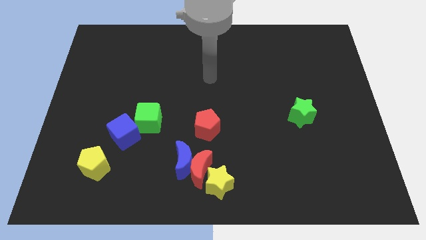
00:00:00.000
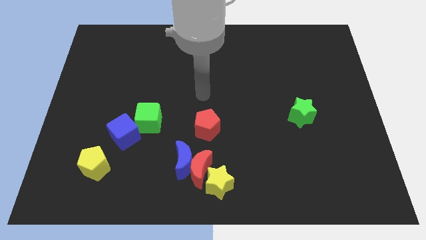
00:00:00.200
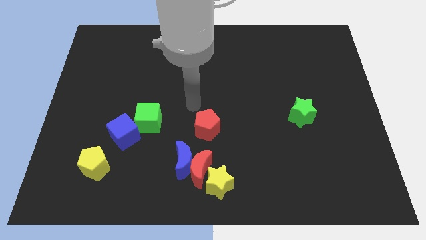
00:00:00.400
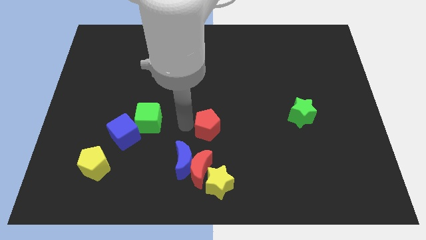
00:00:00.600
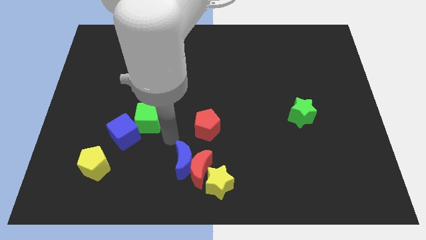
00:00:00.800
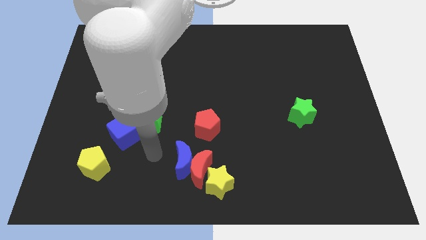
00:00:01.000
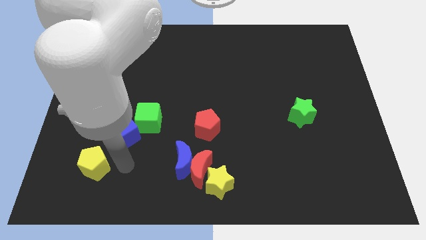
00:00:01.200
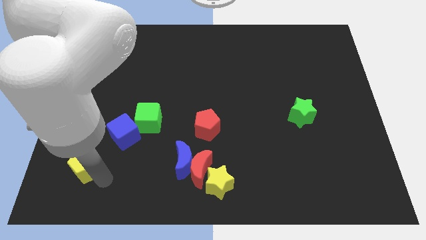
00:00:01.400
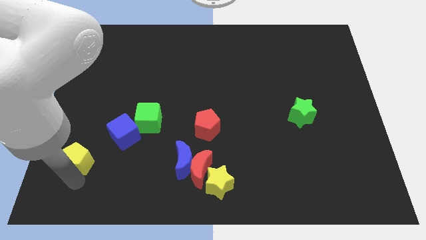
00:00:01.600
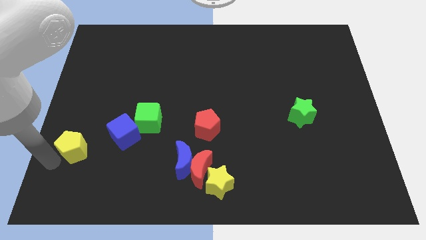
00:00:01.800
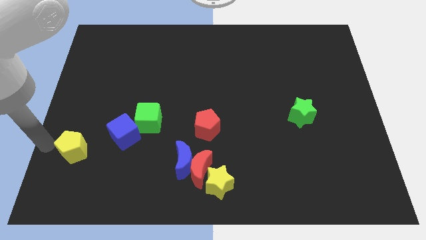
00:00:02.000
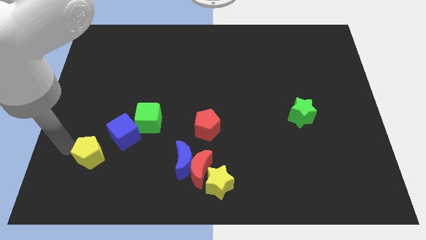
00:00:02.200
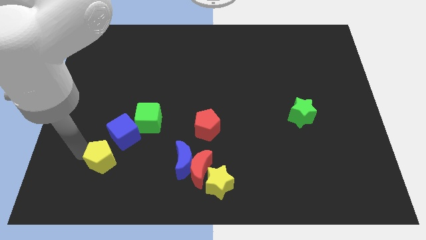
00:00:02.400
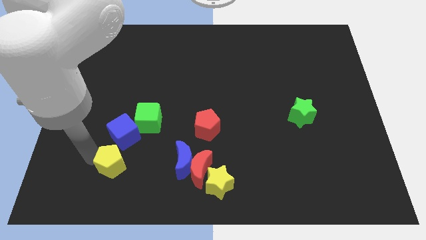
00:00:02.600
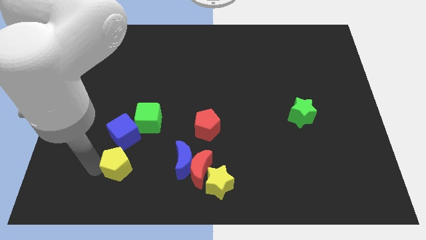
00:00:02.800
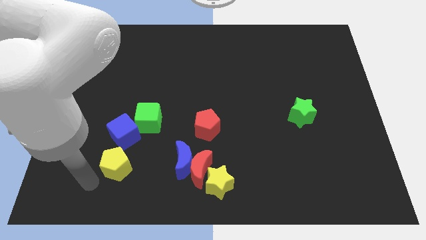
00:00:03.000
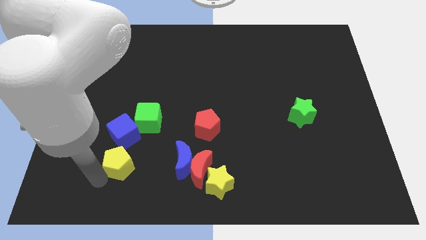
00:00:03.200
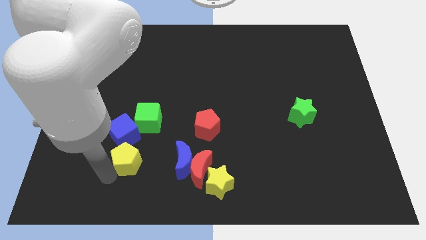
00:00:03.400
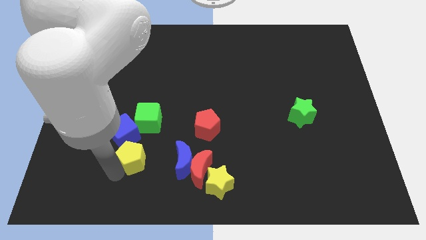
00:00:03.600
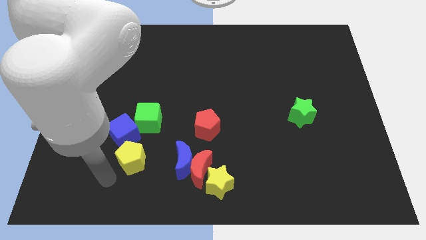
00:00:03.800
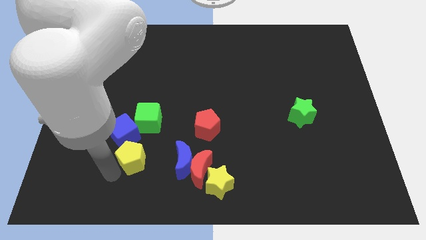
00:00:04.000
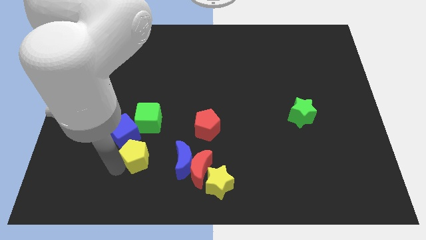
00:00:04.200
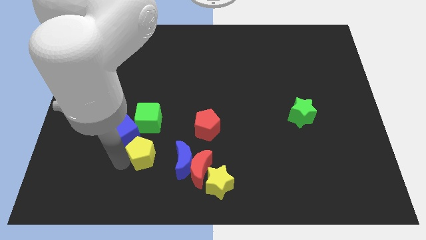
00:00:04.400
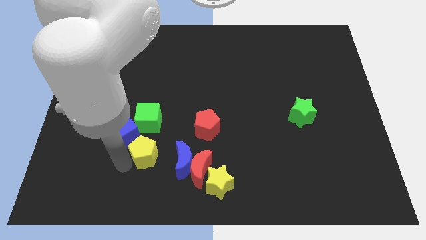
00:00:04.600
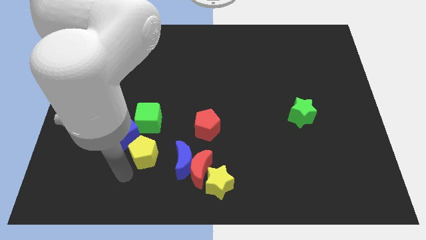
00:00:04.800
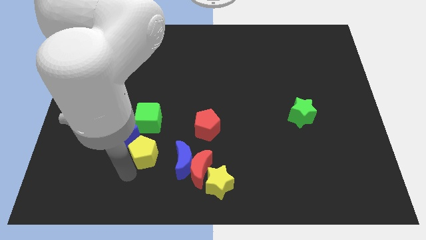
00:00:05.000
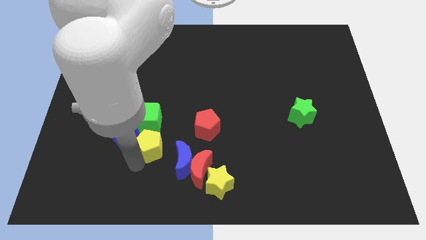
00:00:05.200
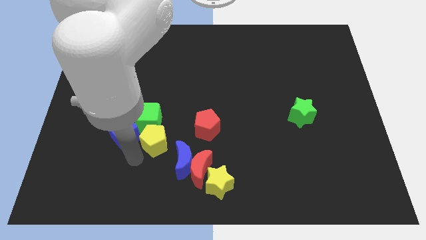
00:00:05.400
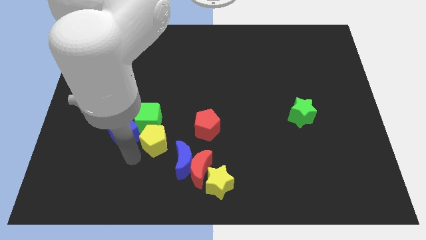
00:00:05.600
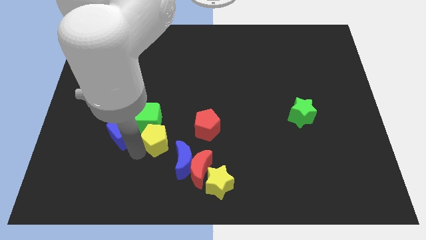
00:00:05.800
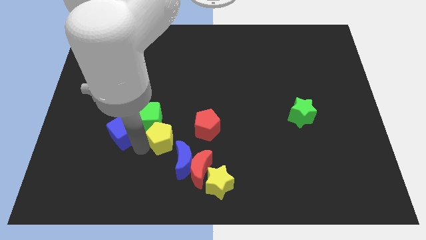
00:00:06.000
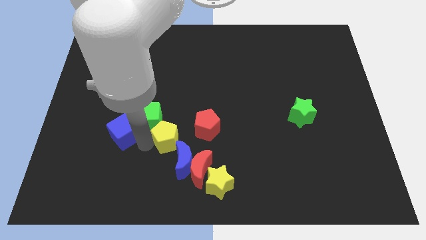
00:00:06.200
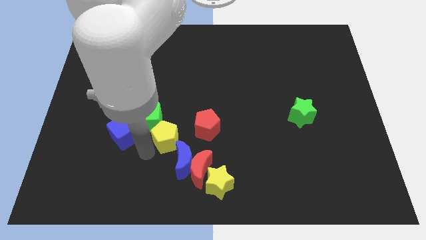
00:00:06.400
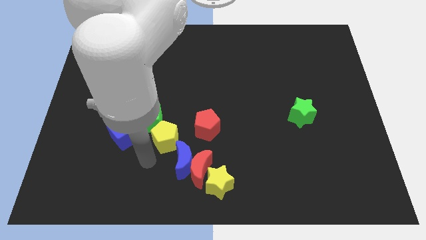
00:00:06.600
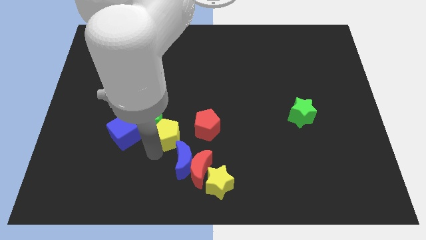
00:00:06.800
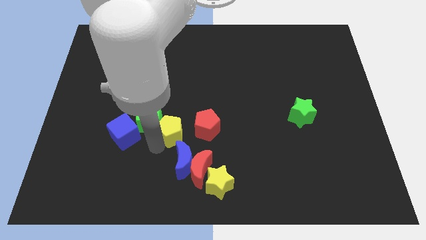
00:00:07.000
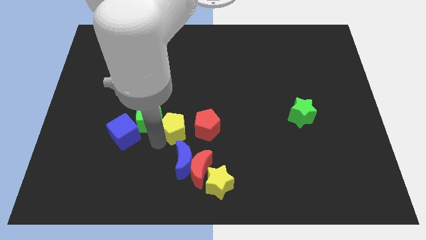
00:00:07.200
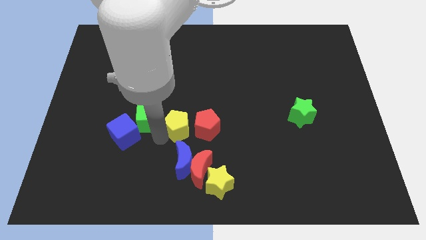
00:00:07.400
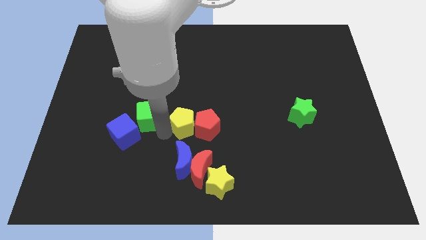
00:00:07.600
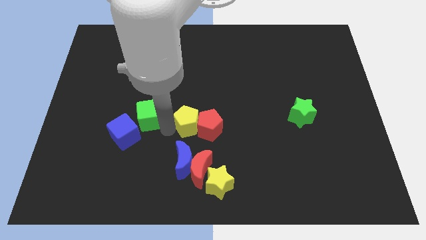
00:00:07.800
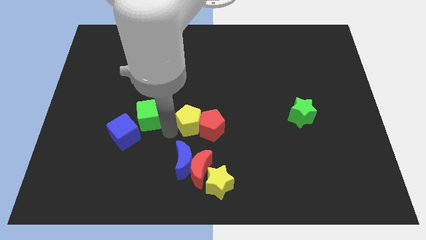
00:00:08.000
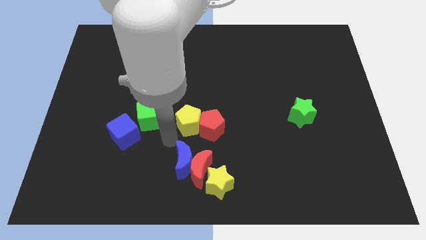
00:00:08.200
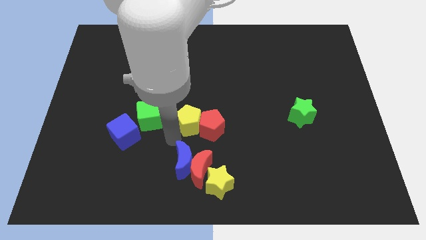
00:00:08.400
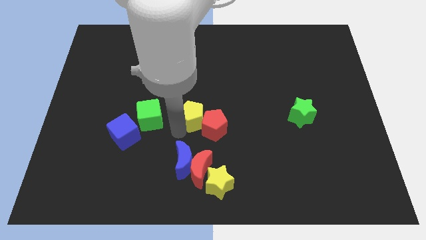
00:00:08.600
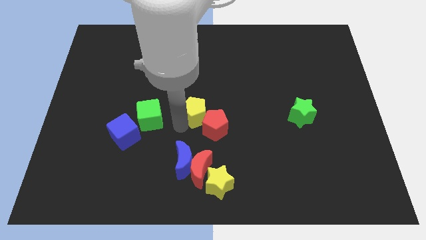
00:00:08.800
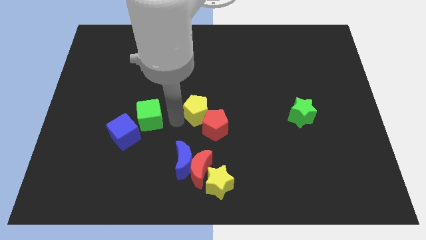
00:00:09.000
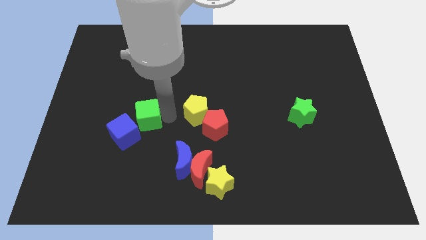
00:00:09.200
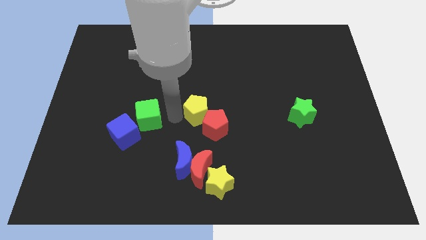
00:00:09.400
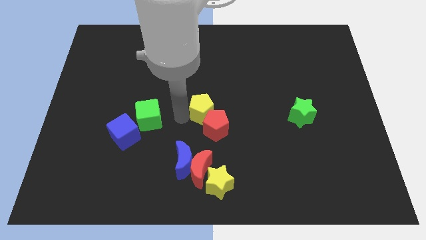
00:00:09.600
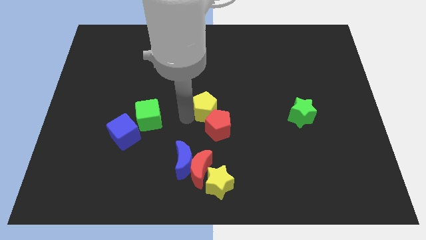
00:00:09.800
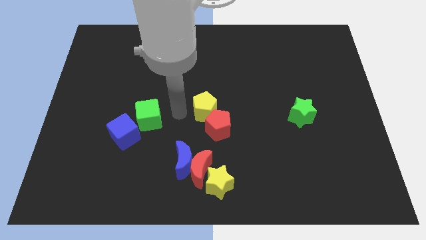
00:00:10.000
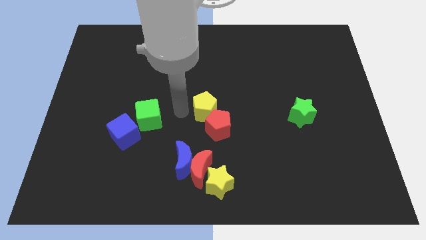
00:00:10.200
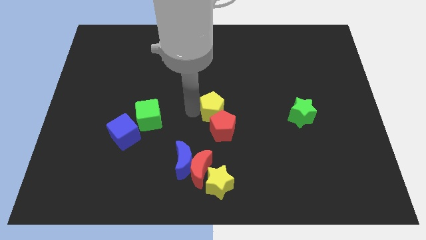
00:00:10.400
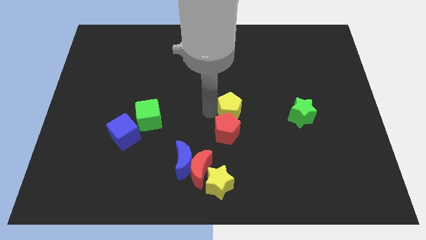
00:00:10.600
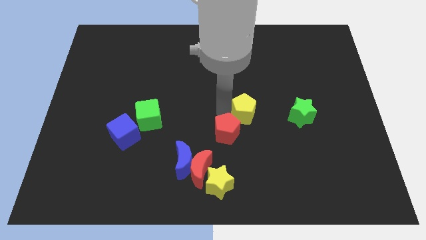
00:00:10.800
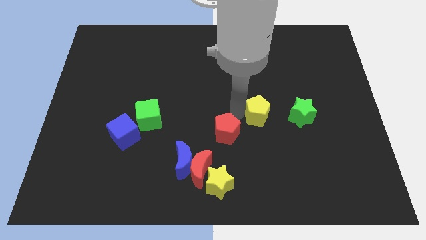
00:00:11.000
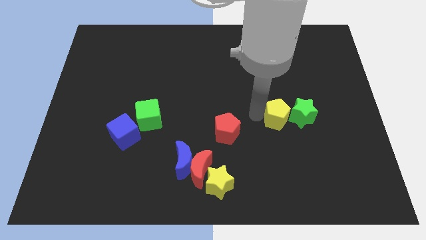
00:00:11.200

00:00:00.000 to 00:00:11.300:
move the yellow pentagon close to the green star

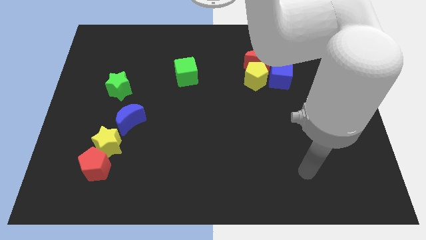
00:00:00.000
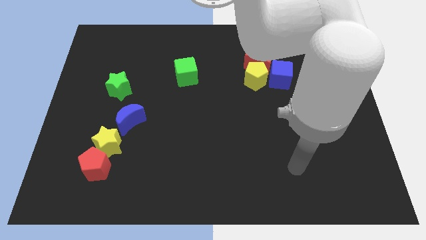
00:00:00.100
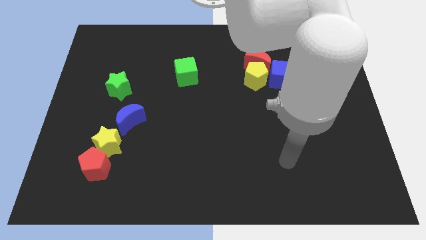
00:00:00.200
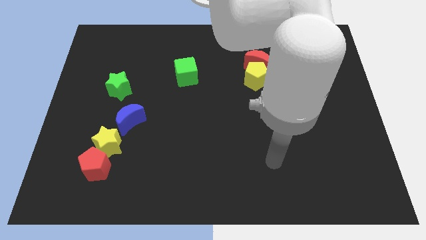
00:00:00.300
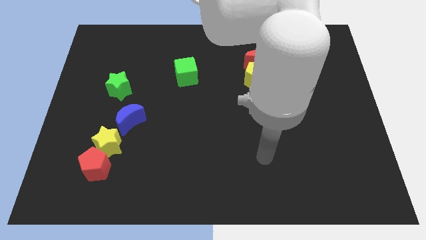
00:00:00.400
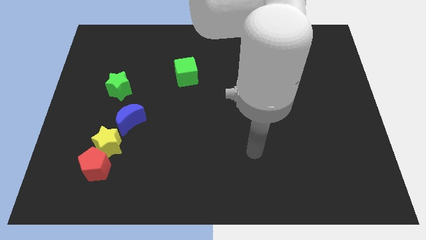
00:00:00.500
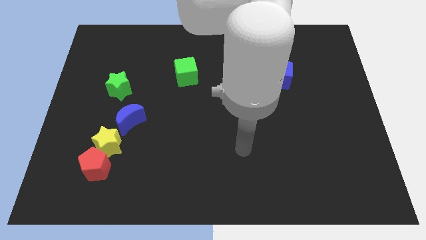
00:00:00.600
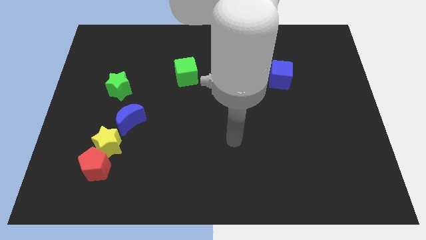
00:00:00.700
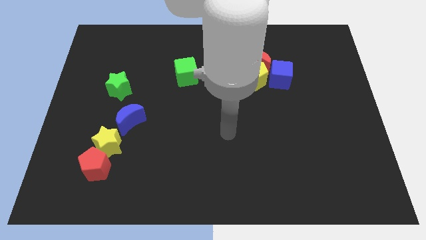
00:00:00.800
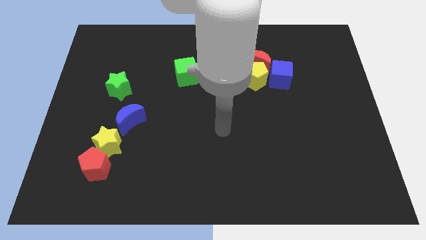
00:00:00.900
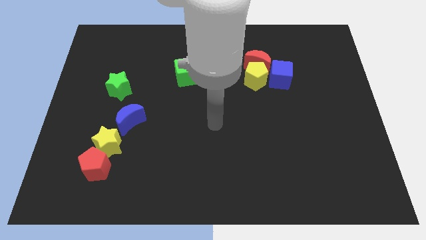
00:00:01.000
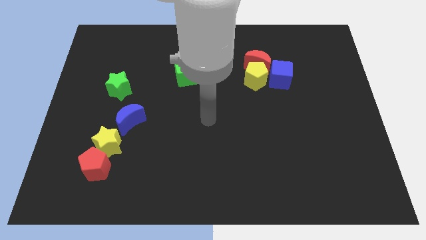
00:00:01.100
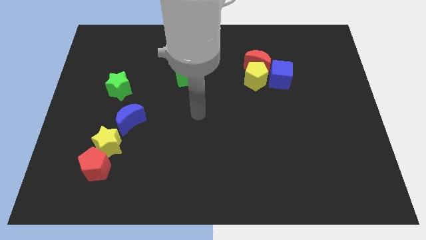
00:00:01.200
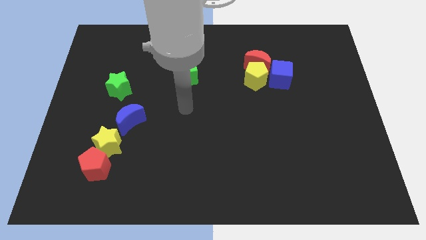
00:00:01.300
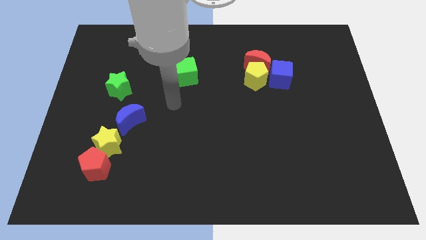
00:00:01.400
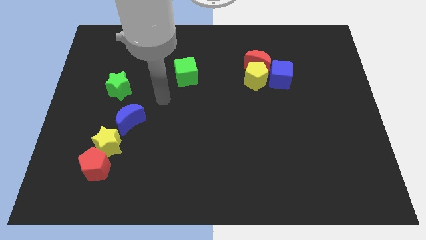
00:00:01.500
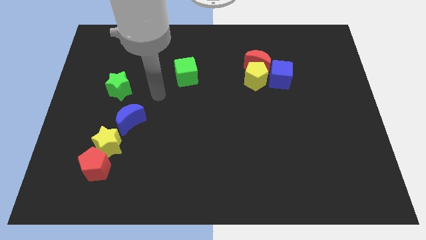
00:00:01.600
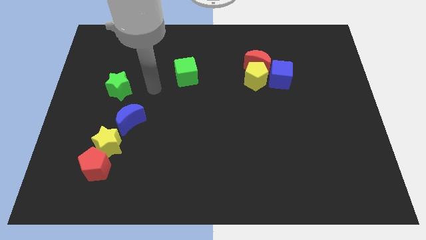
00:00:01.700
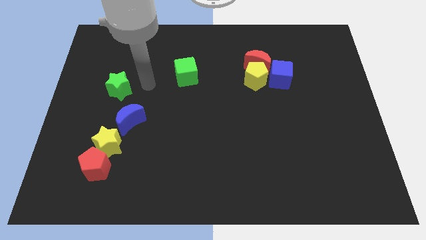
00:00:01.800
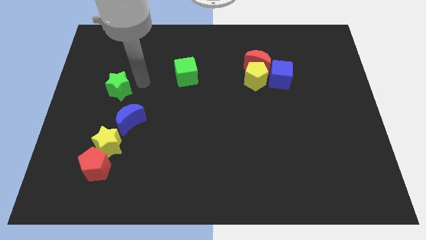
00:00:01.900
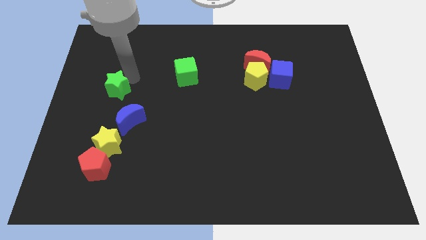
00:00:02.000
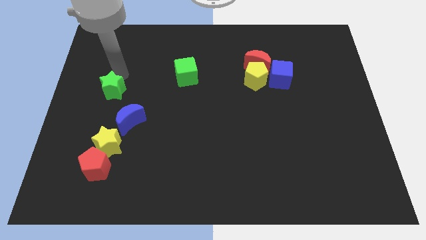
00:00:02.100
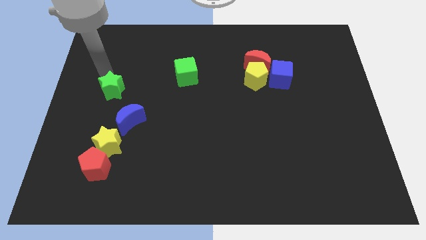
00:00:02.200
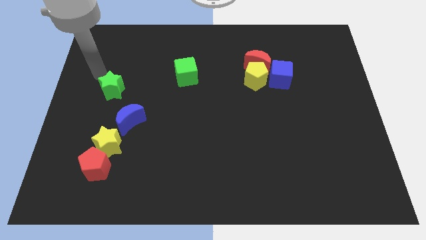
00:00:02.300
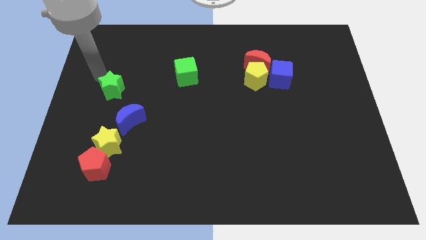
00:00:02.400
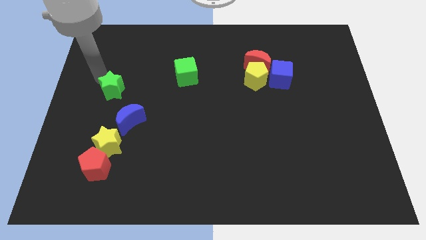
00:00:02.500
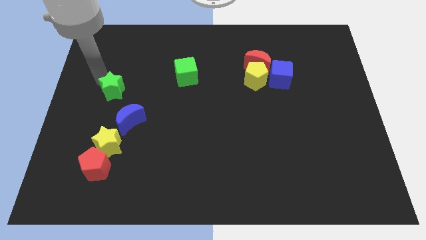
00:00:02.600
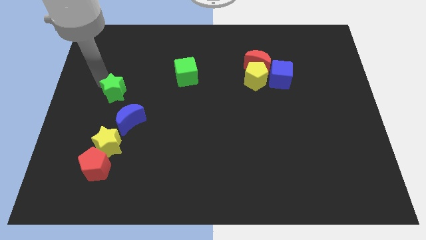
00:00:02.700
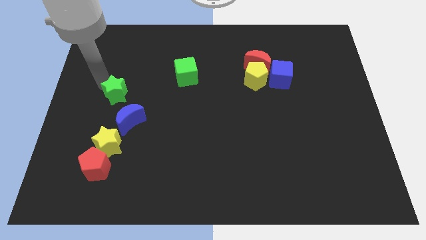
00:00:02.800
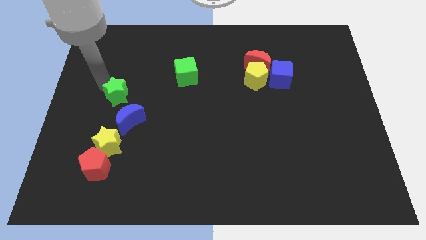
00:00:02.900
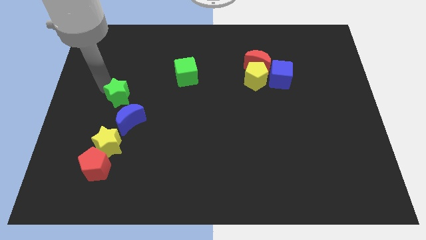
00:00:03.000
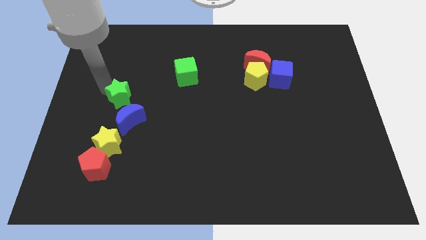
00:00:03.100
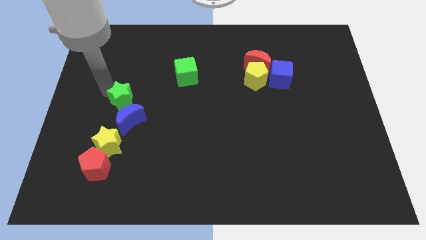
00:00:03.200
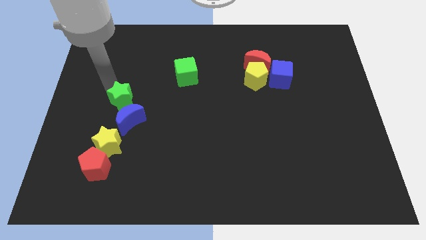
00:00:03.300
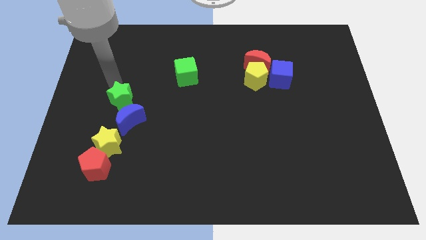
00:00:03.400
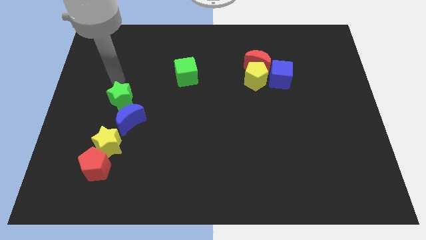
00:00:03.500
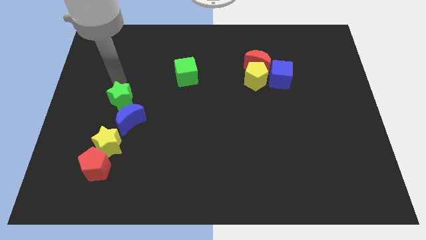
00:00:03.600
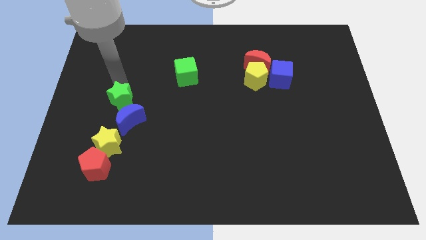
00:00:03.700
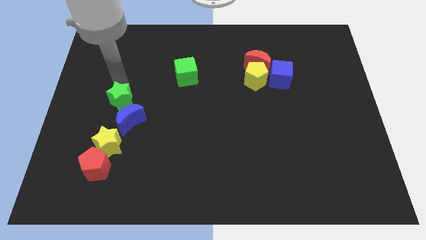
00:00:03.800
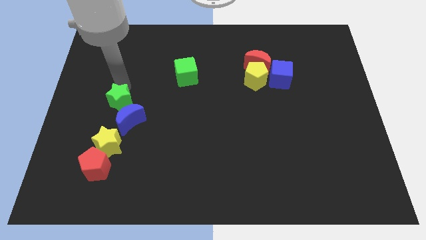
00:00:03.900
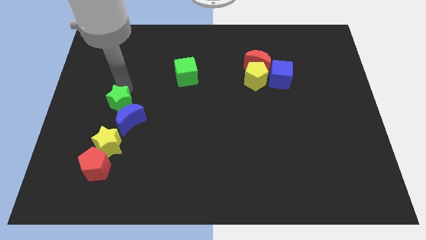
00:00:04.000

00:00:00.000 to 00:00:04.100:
push the green star towards the blue moon
